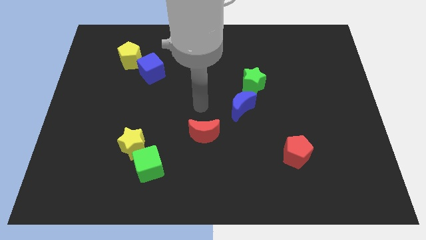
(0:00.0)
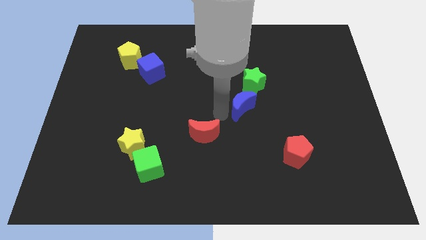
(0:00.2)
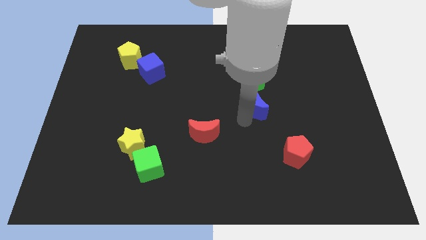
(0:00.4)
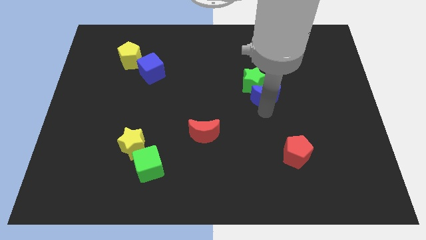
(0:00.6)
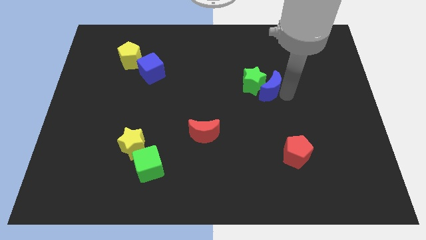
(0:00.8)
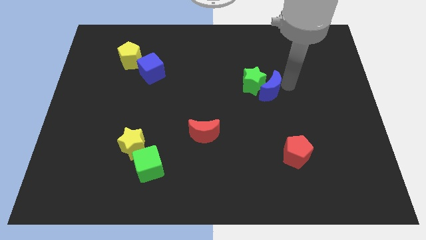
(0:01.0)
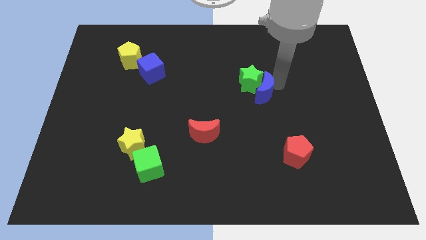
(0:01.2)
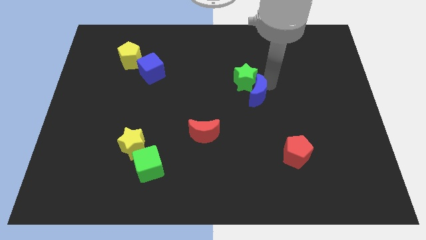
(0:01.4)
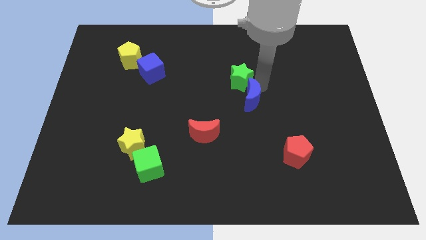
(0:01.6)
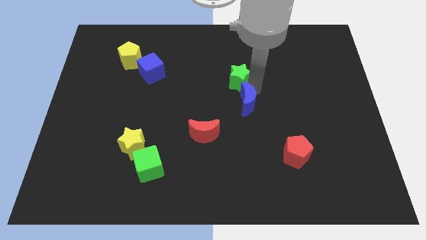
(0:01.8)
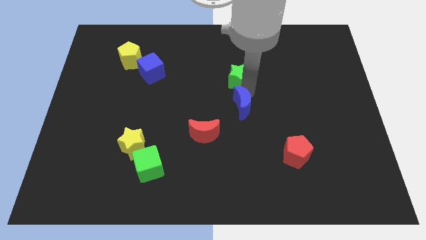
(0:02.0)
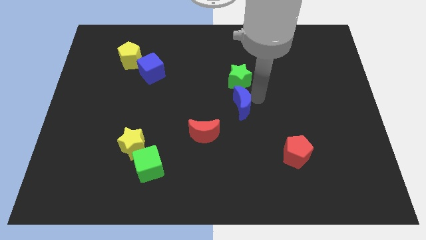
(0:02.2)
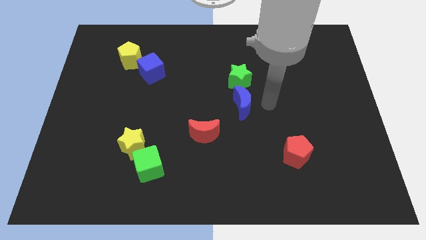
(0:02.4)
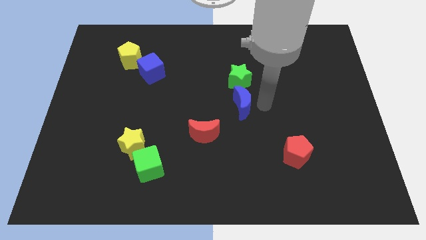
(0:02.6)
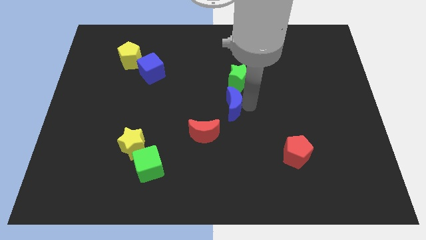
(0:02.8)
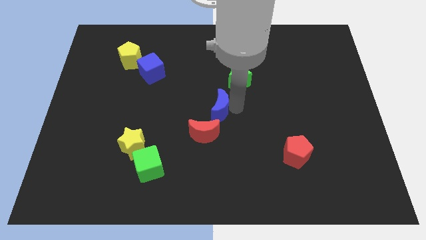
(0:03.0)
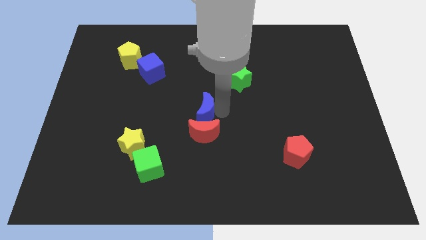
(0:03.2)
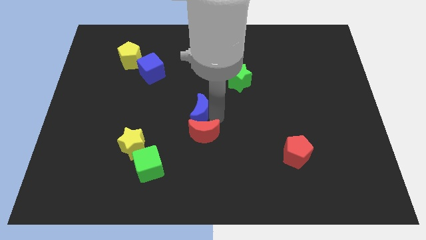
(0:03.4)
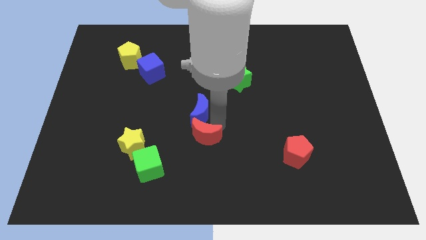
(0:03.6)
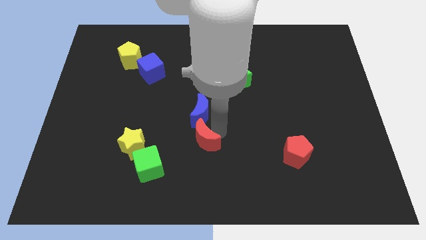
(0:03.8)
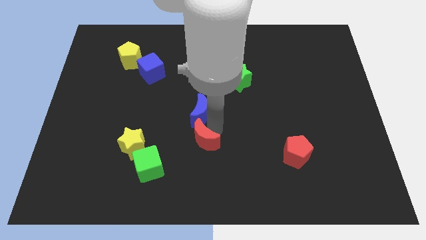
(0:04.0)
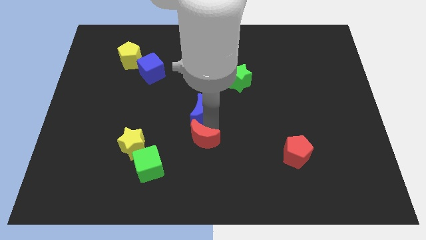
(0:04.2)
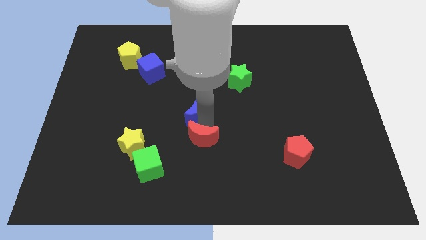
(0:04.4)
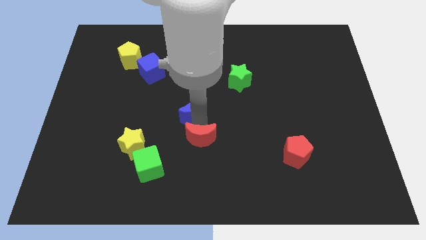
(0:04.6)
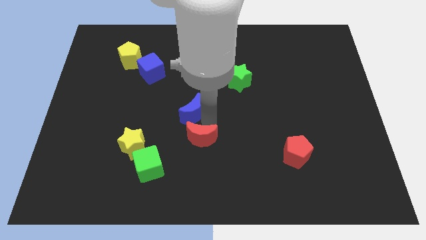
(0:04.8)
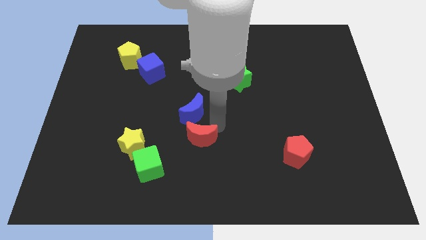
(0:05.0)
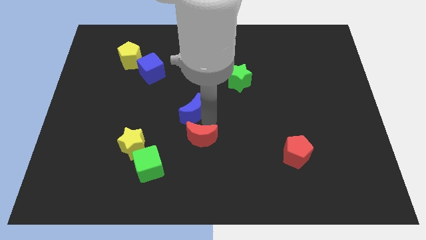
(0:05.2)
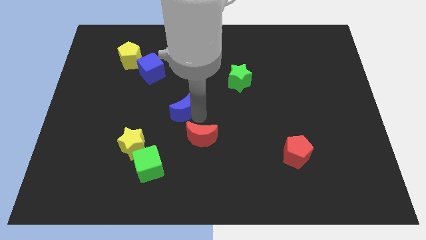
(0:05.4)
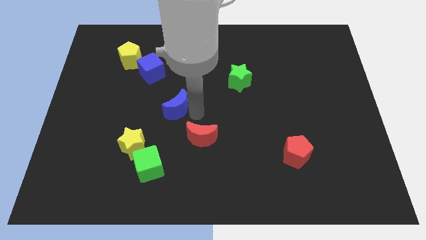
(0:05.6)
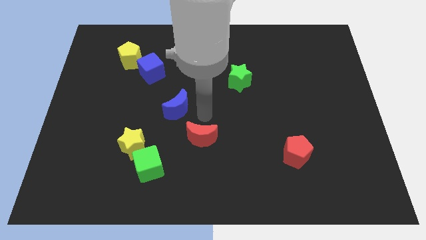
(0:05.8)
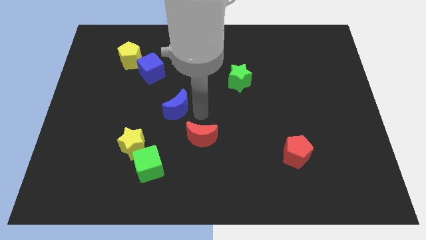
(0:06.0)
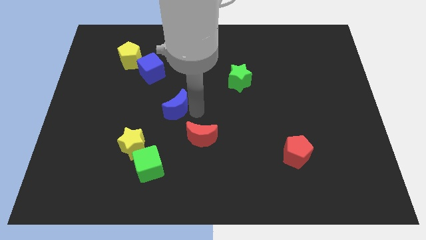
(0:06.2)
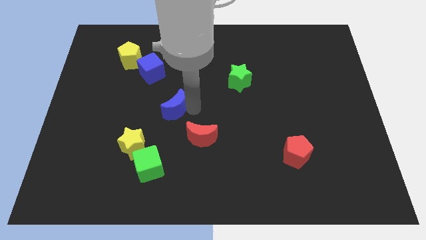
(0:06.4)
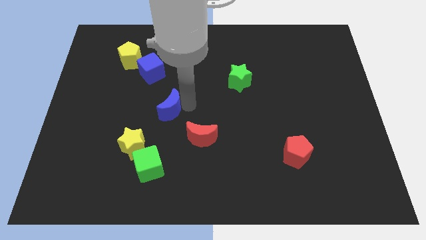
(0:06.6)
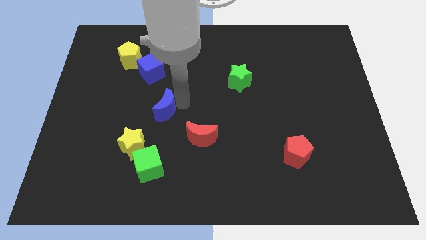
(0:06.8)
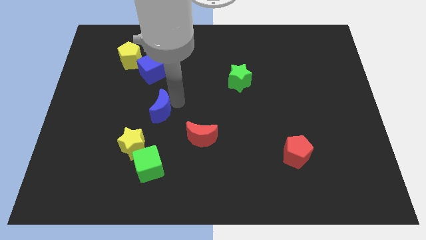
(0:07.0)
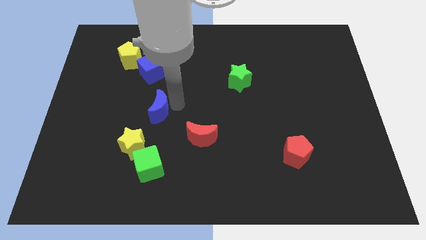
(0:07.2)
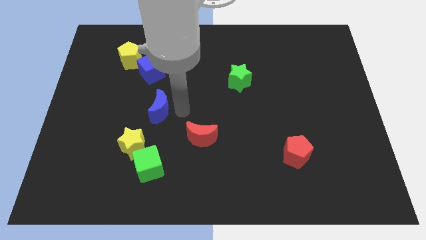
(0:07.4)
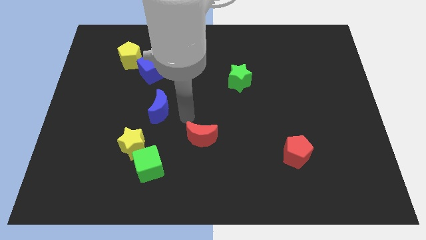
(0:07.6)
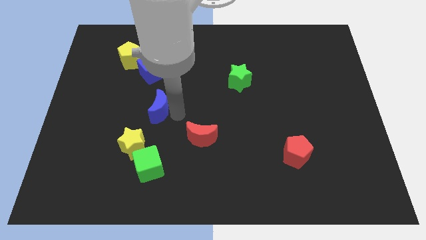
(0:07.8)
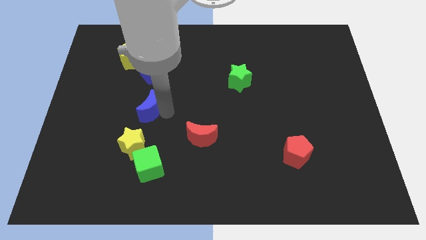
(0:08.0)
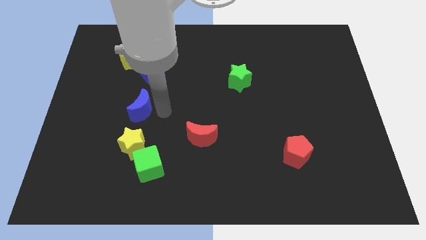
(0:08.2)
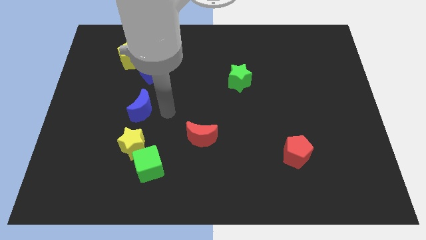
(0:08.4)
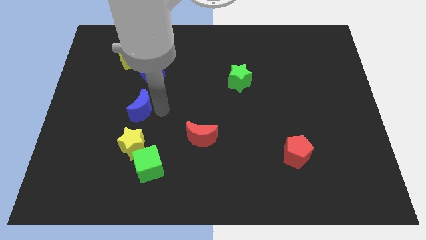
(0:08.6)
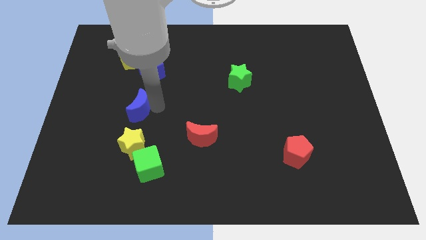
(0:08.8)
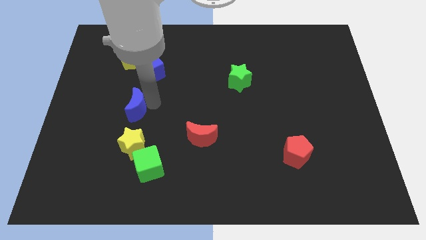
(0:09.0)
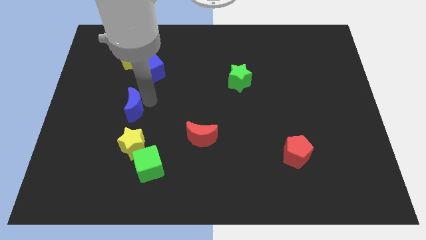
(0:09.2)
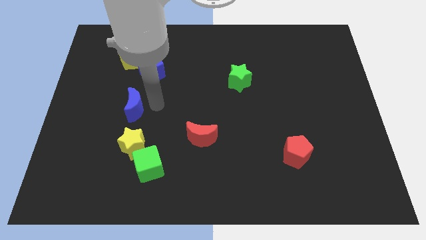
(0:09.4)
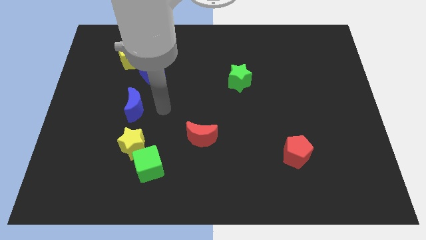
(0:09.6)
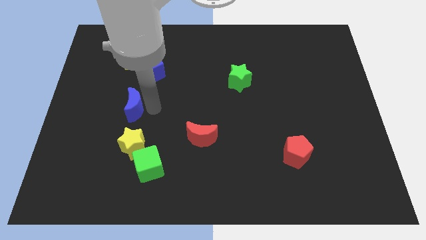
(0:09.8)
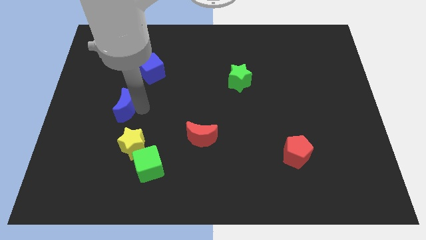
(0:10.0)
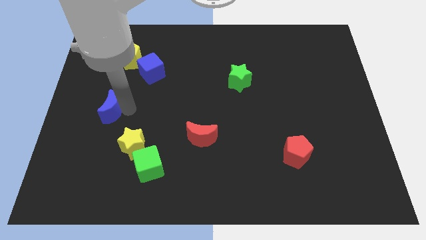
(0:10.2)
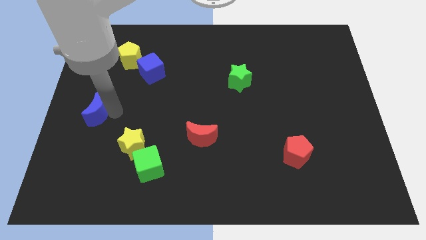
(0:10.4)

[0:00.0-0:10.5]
slide the blue moon to the left side

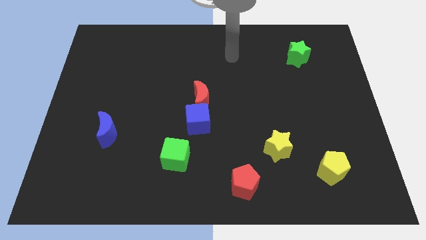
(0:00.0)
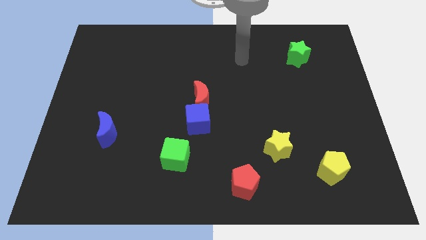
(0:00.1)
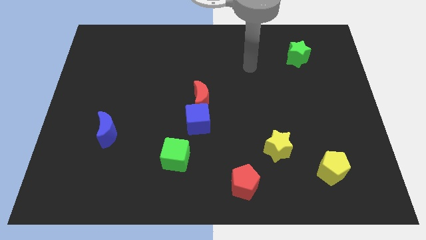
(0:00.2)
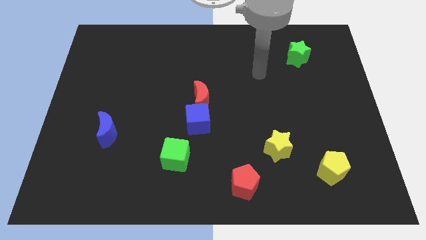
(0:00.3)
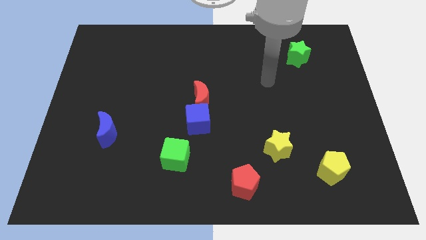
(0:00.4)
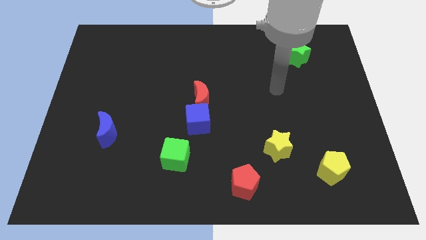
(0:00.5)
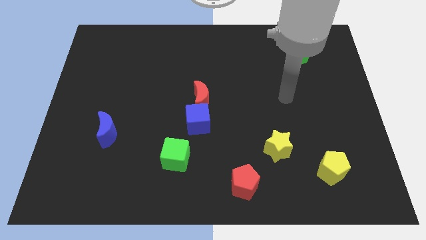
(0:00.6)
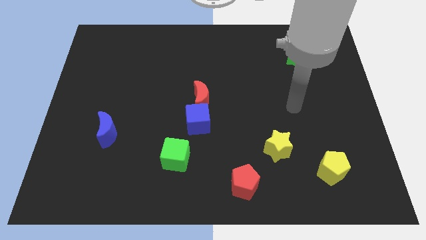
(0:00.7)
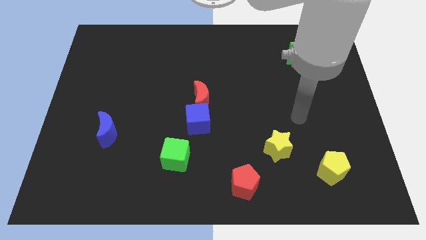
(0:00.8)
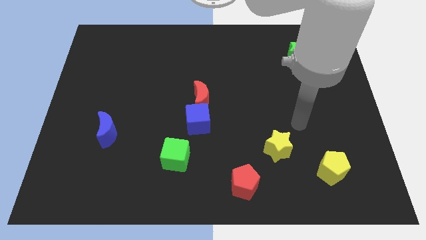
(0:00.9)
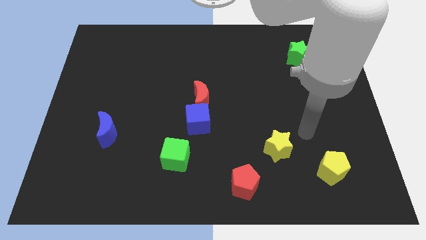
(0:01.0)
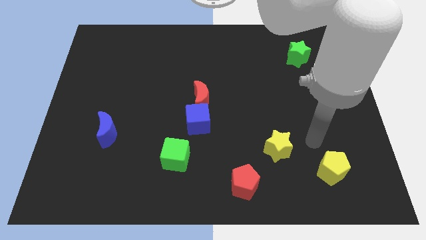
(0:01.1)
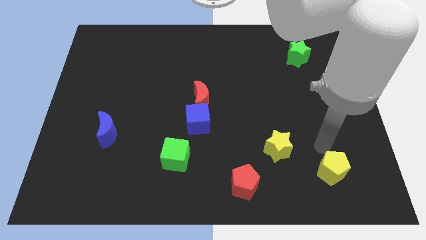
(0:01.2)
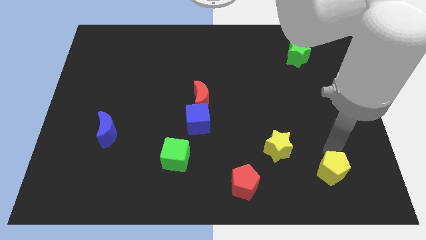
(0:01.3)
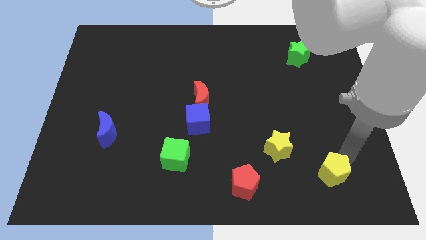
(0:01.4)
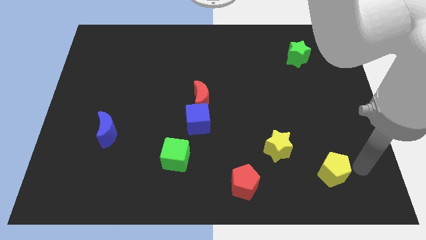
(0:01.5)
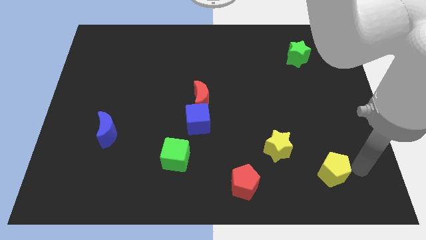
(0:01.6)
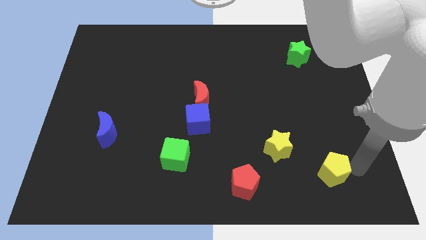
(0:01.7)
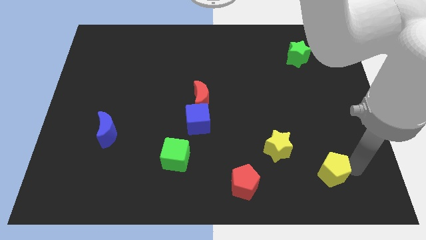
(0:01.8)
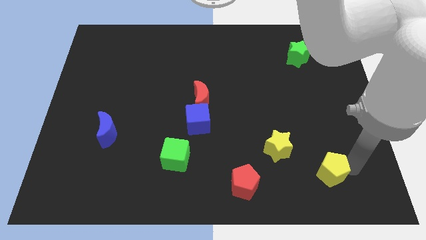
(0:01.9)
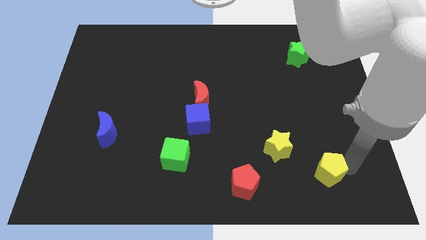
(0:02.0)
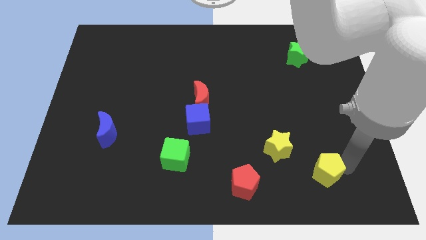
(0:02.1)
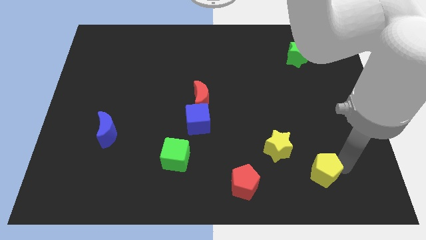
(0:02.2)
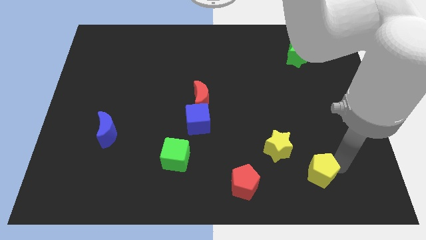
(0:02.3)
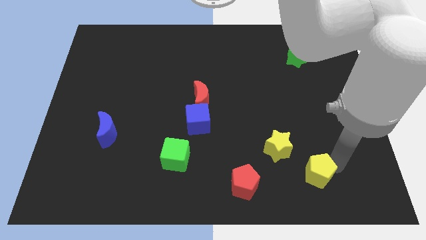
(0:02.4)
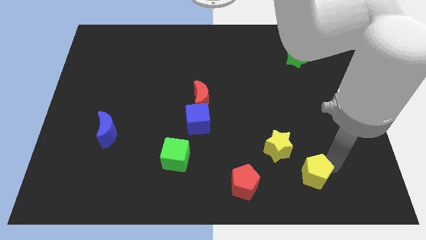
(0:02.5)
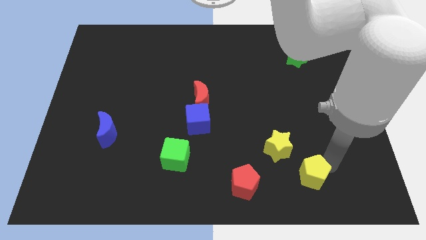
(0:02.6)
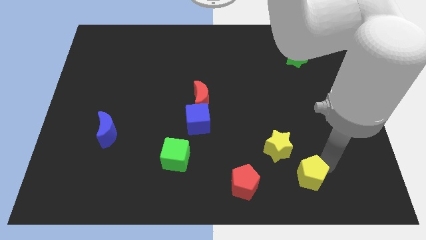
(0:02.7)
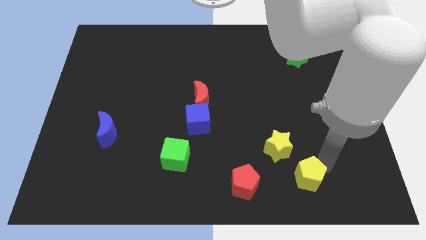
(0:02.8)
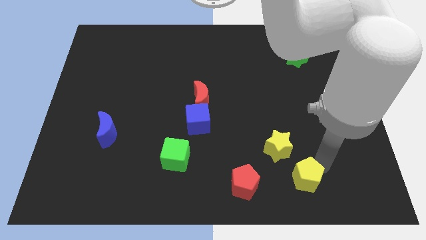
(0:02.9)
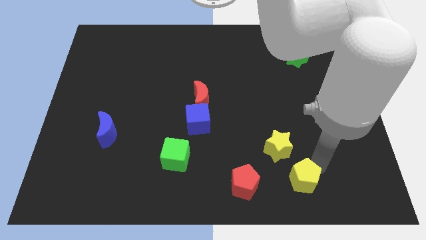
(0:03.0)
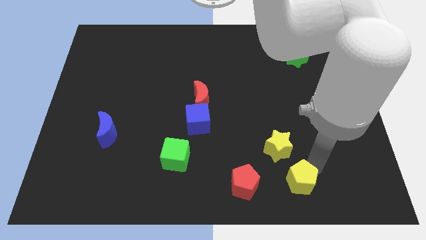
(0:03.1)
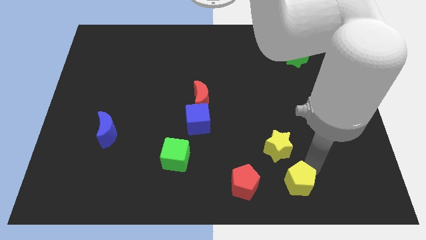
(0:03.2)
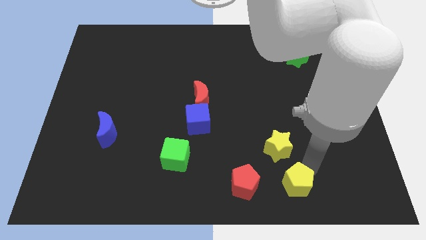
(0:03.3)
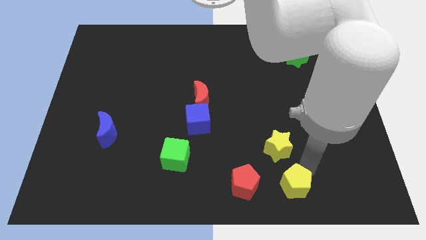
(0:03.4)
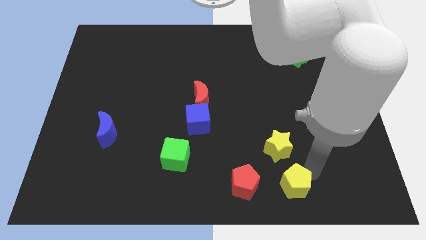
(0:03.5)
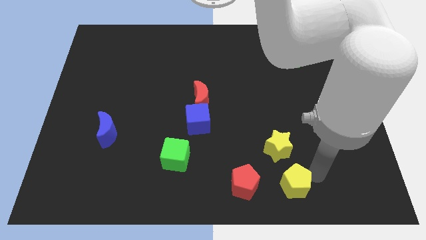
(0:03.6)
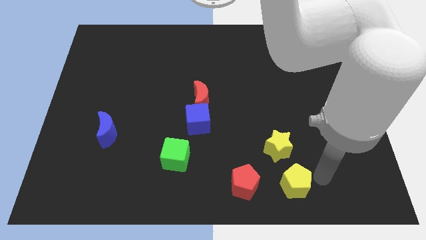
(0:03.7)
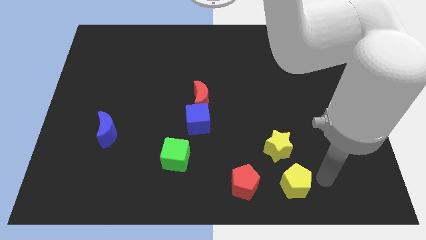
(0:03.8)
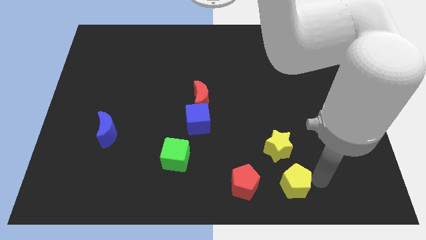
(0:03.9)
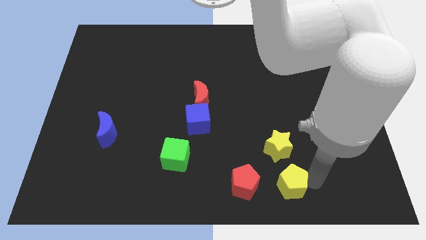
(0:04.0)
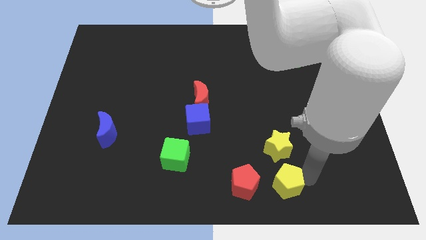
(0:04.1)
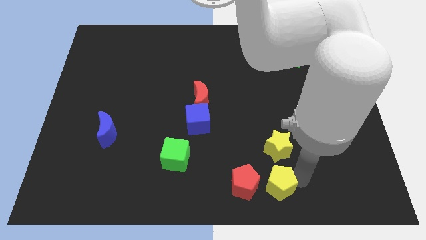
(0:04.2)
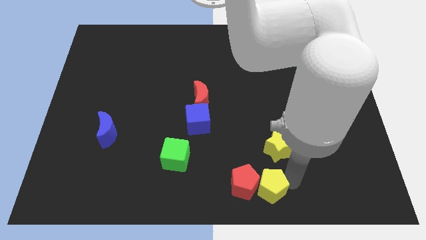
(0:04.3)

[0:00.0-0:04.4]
put the yellow pentagon to the bottom side
